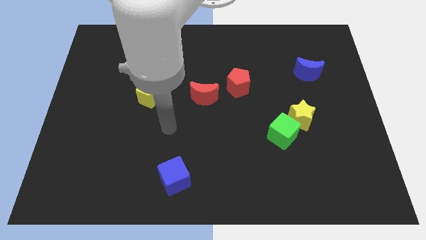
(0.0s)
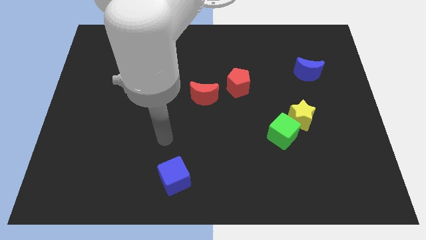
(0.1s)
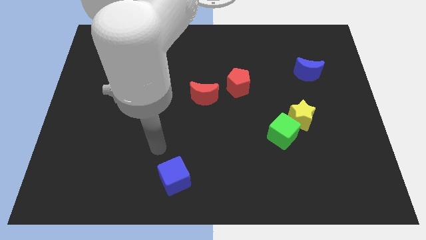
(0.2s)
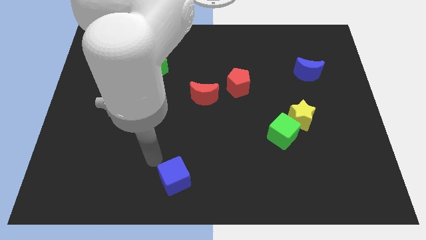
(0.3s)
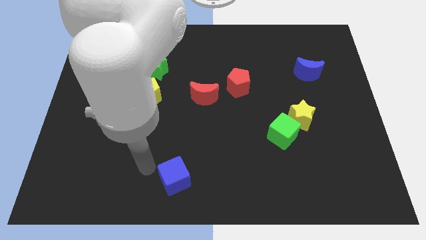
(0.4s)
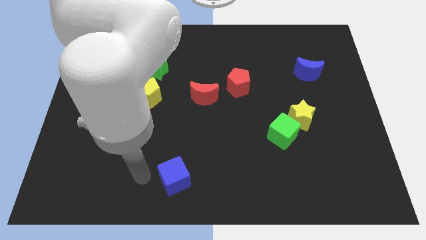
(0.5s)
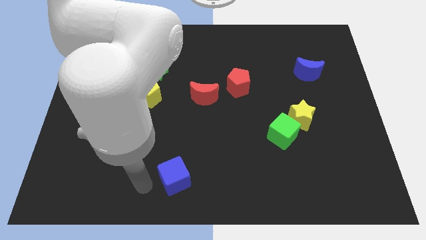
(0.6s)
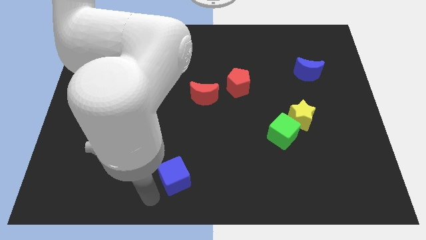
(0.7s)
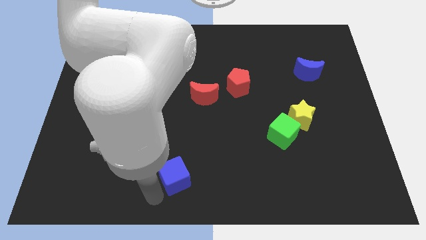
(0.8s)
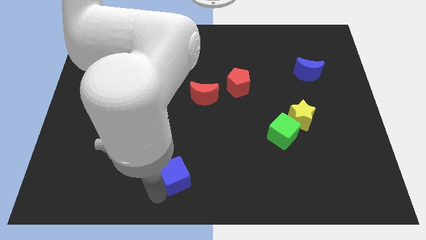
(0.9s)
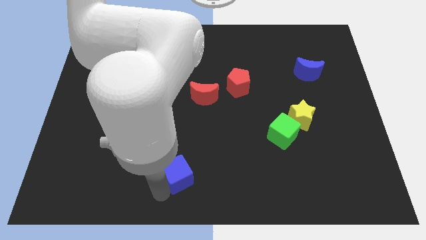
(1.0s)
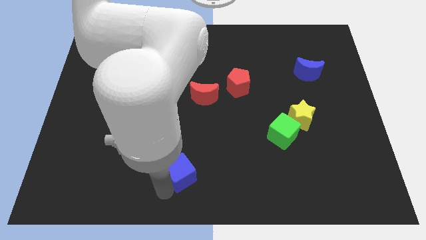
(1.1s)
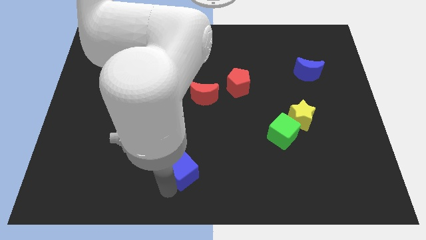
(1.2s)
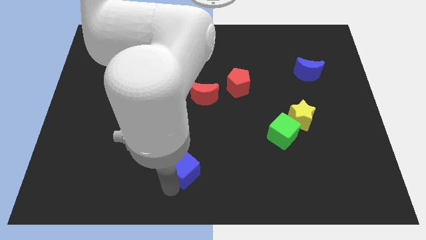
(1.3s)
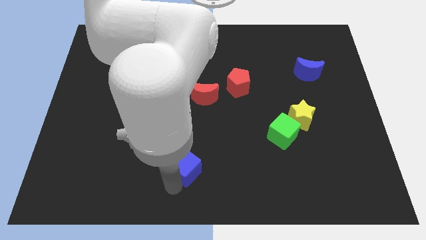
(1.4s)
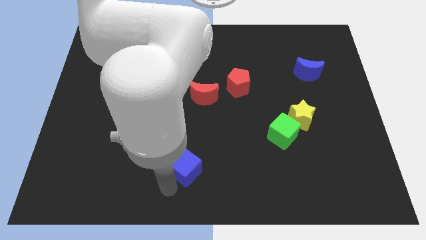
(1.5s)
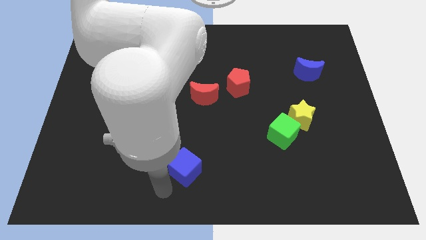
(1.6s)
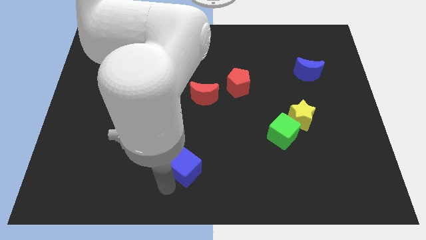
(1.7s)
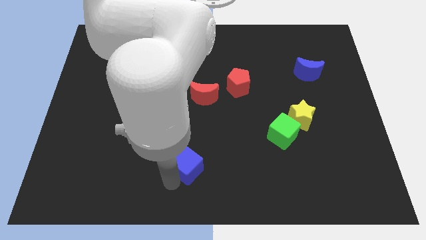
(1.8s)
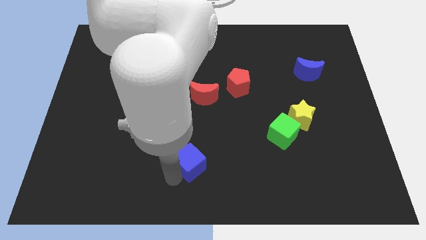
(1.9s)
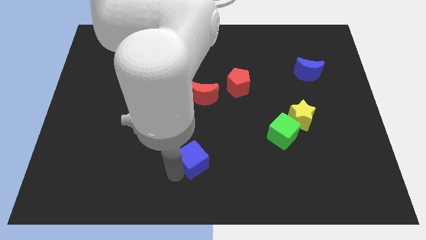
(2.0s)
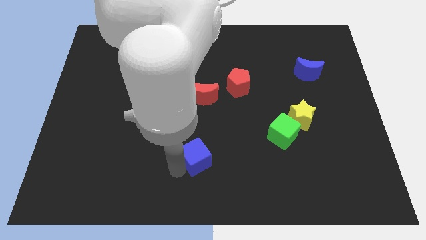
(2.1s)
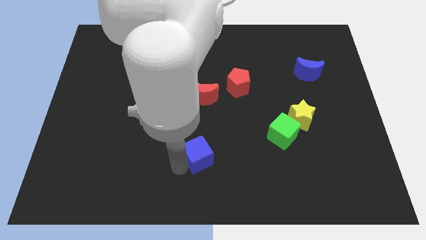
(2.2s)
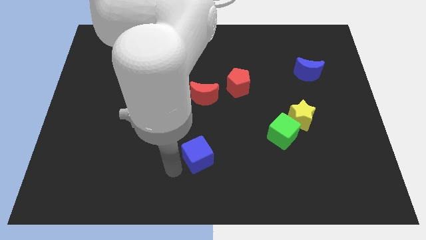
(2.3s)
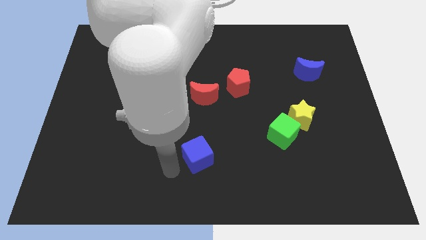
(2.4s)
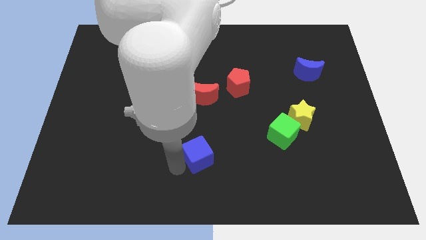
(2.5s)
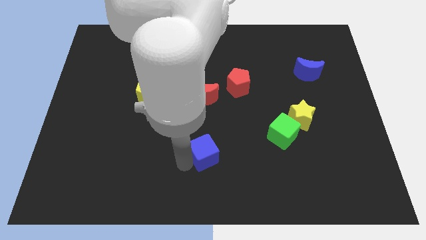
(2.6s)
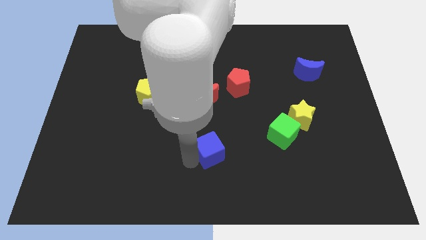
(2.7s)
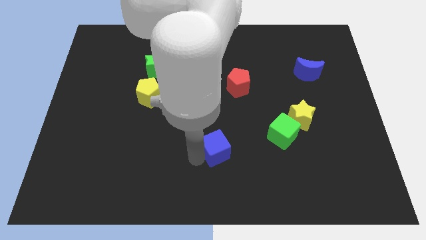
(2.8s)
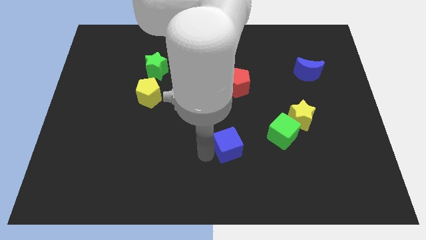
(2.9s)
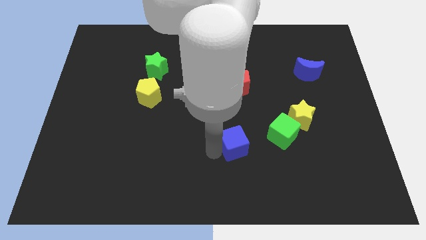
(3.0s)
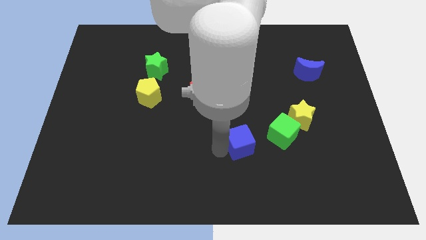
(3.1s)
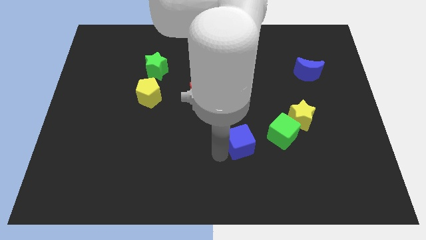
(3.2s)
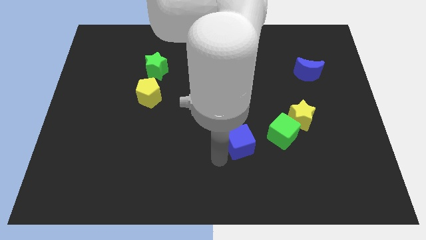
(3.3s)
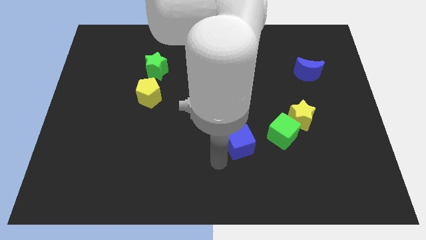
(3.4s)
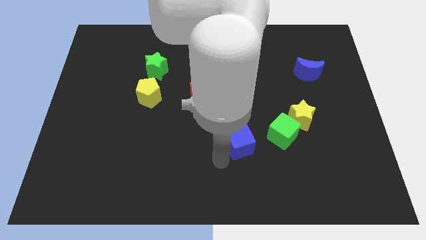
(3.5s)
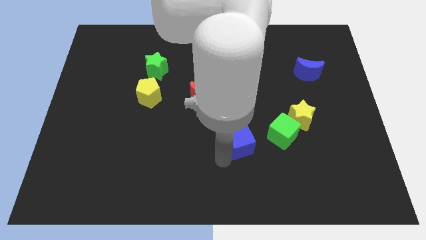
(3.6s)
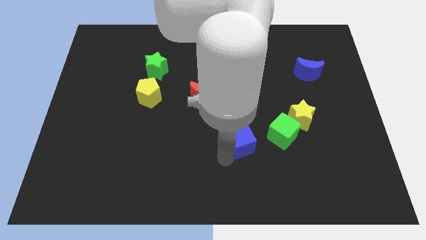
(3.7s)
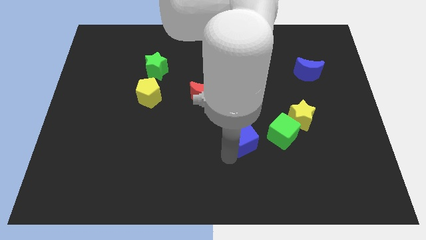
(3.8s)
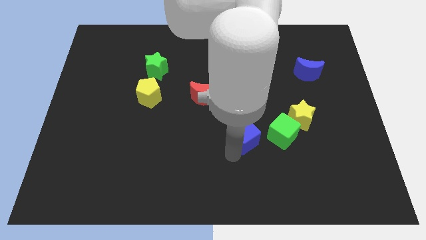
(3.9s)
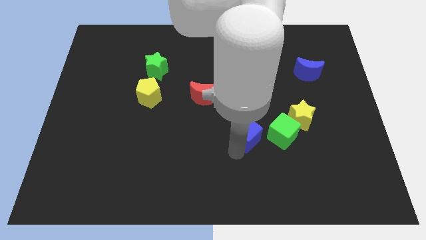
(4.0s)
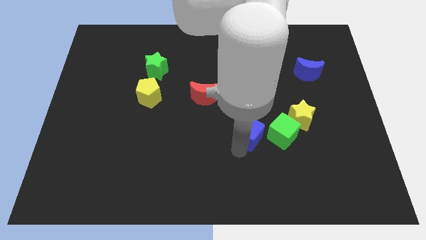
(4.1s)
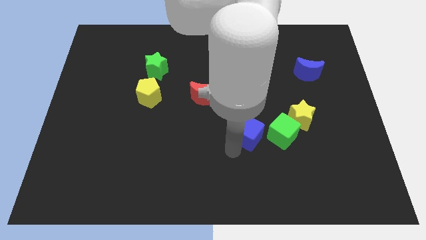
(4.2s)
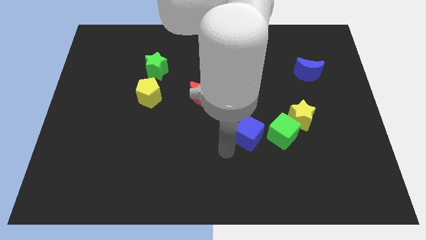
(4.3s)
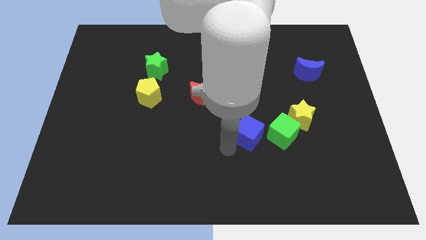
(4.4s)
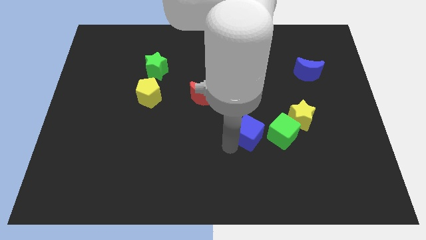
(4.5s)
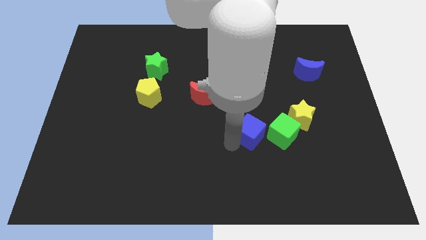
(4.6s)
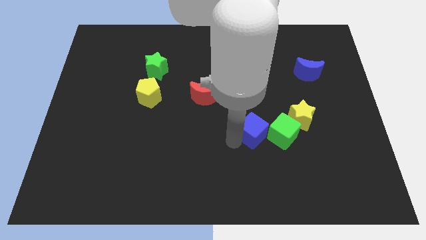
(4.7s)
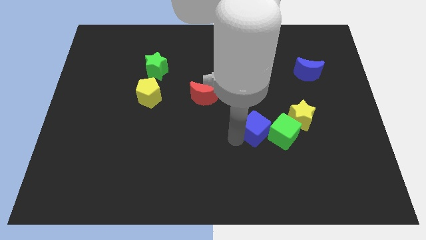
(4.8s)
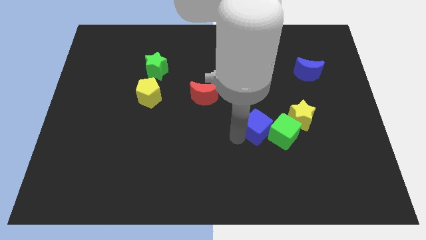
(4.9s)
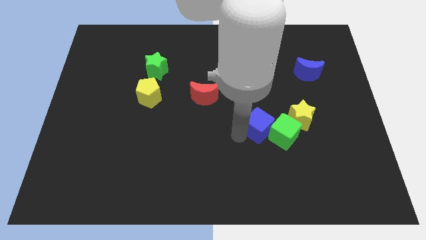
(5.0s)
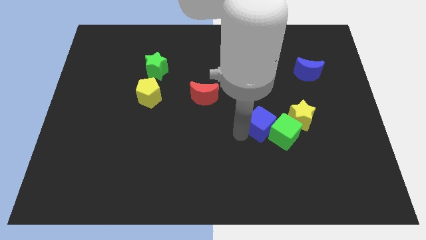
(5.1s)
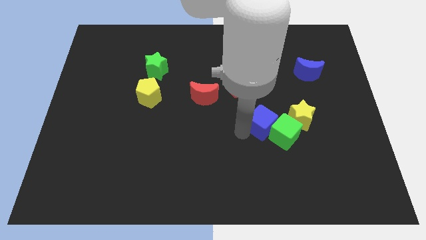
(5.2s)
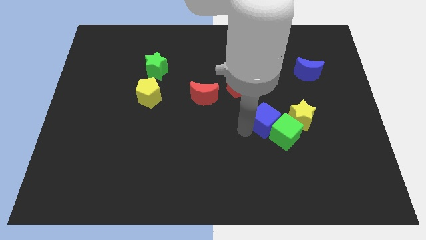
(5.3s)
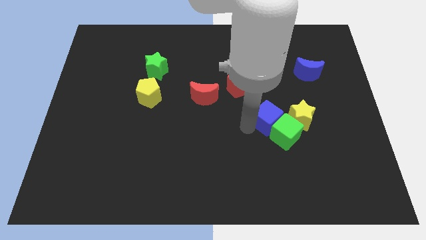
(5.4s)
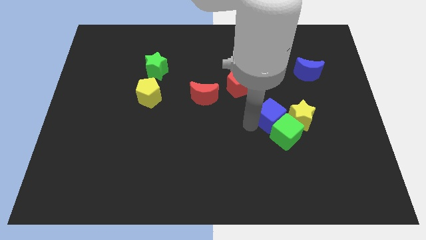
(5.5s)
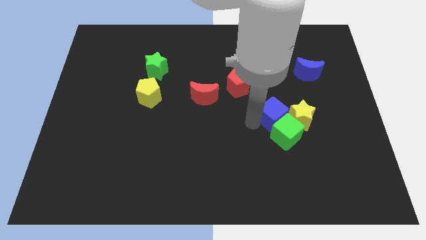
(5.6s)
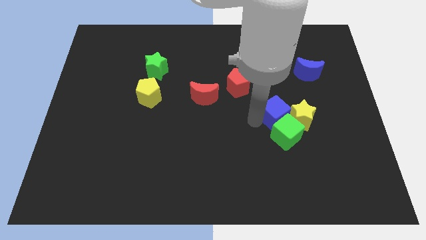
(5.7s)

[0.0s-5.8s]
slide the blue cube close to the yellow star

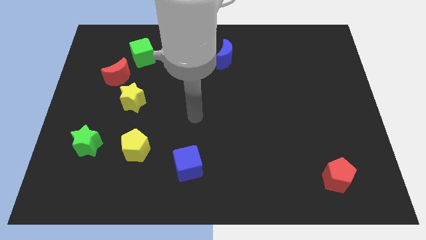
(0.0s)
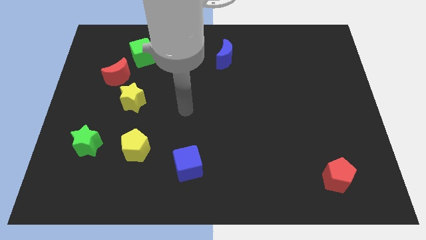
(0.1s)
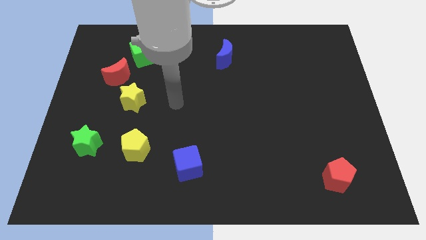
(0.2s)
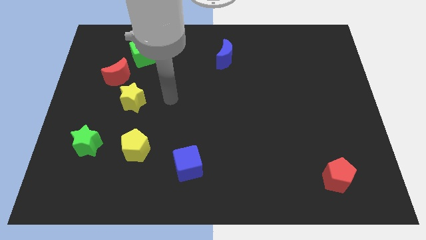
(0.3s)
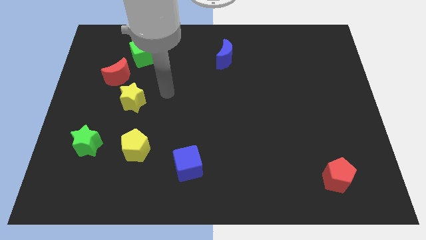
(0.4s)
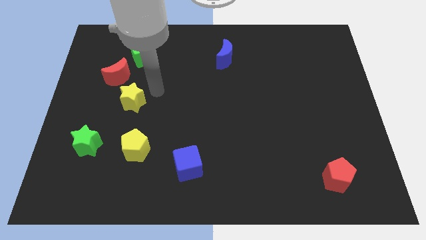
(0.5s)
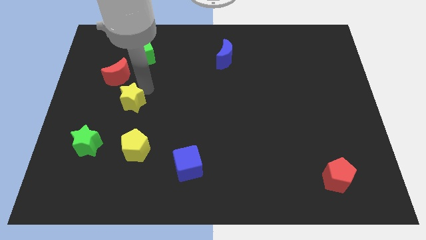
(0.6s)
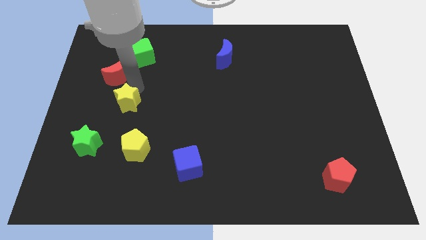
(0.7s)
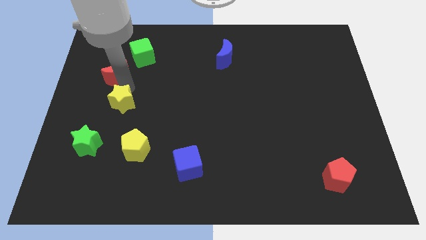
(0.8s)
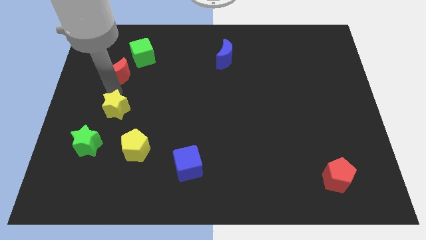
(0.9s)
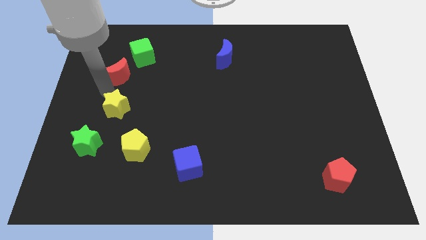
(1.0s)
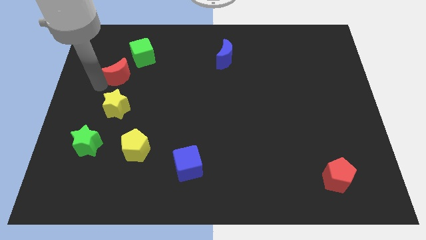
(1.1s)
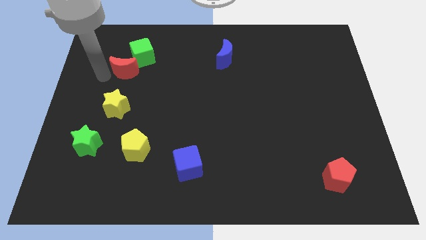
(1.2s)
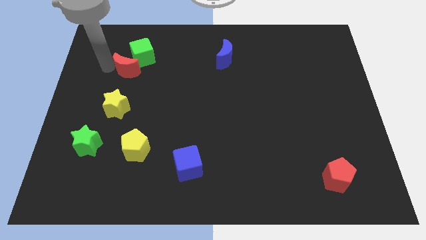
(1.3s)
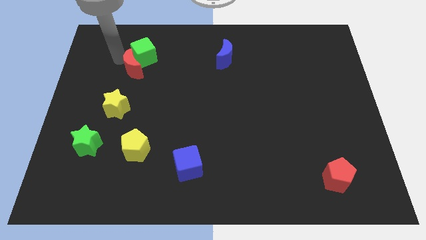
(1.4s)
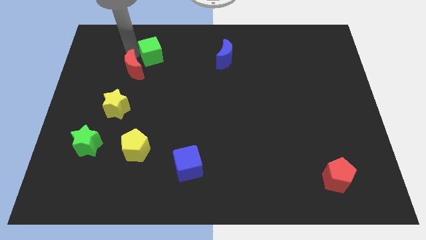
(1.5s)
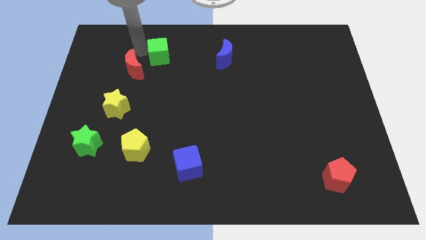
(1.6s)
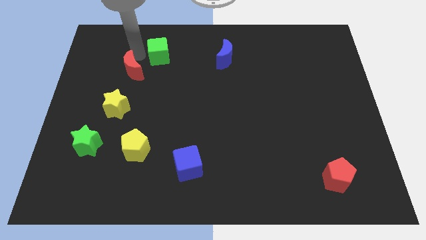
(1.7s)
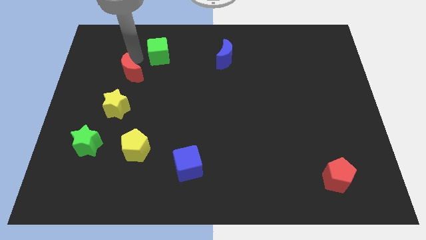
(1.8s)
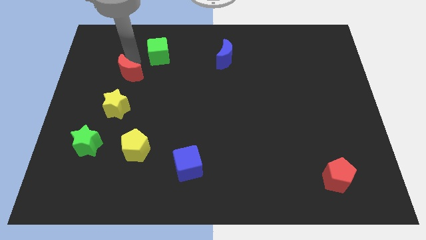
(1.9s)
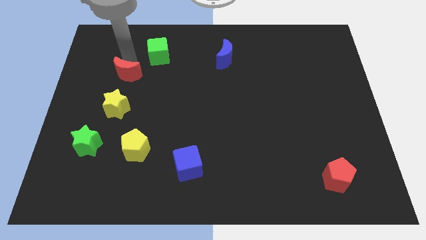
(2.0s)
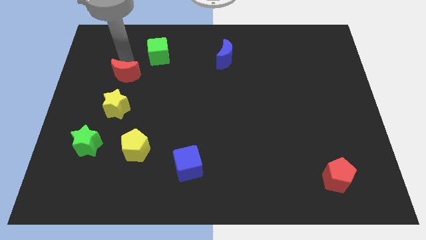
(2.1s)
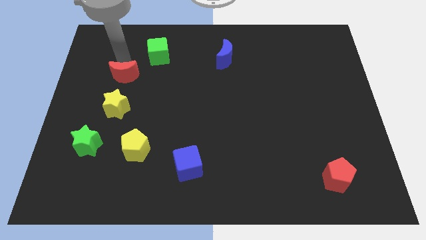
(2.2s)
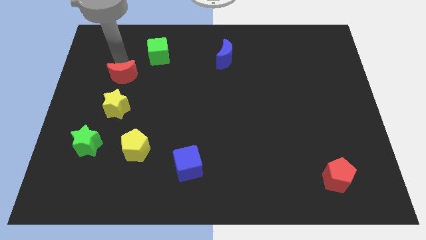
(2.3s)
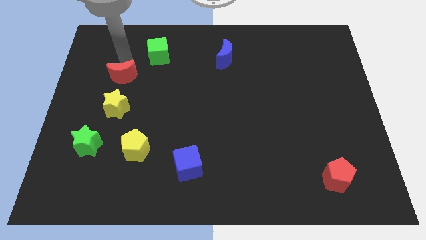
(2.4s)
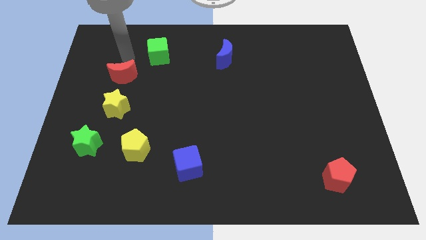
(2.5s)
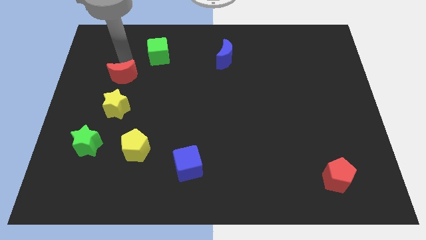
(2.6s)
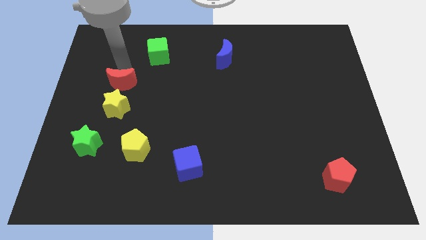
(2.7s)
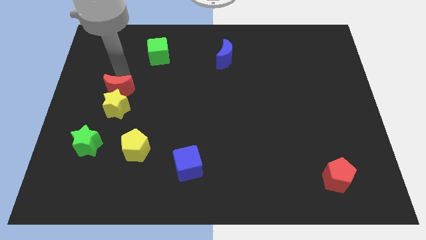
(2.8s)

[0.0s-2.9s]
put the red moon close to the yellow star
